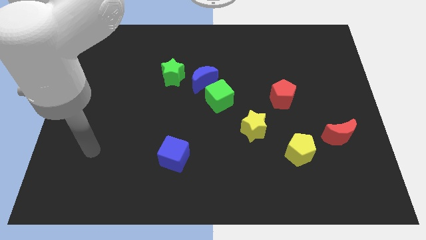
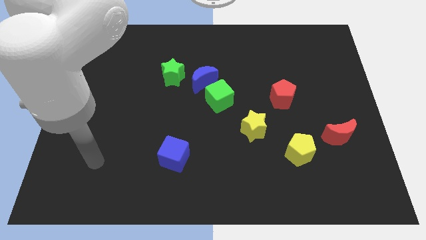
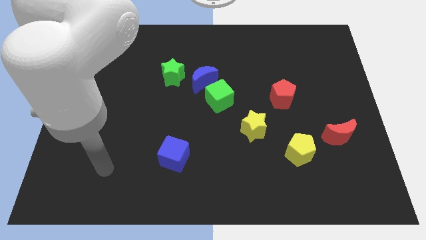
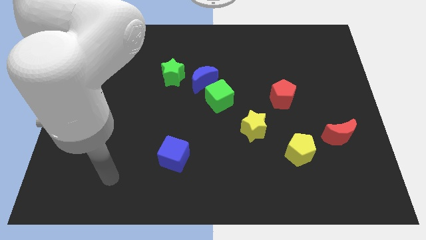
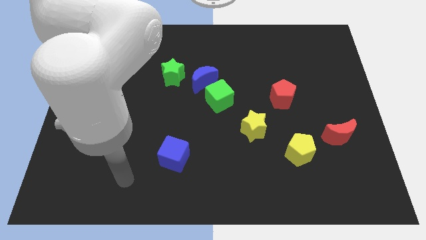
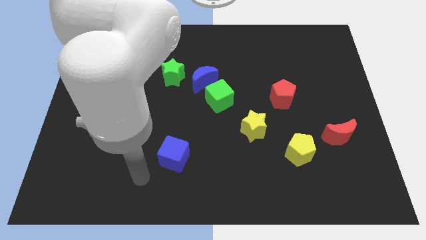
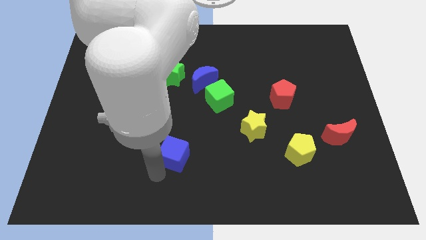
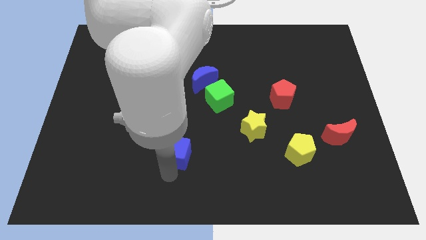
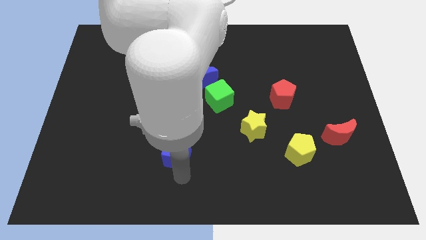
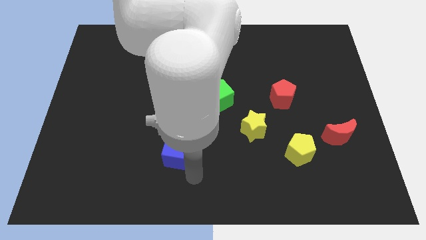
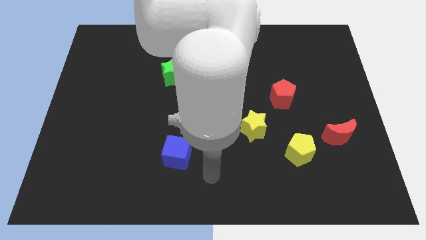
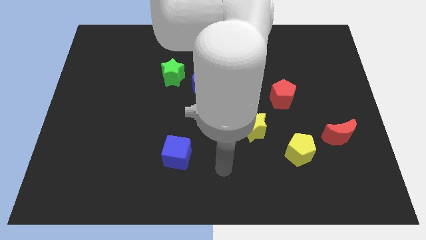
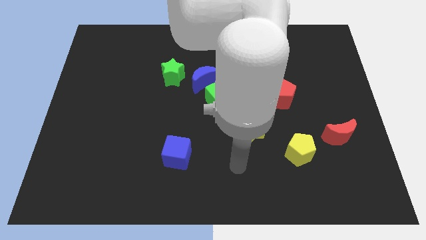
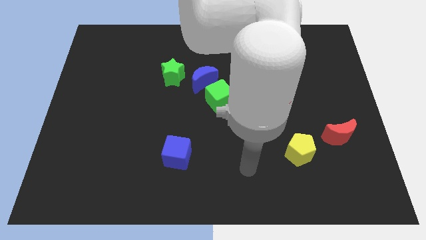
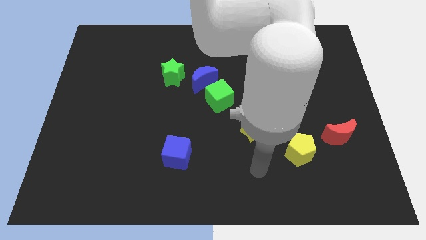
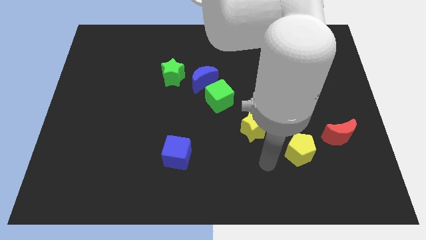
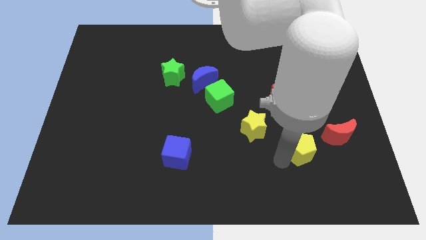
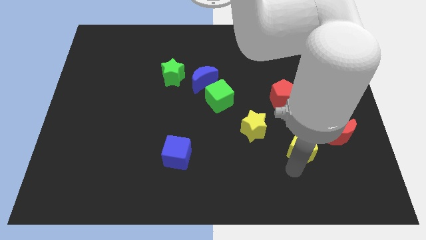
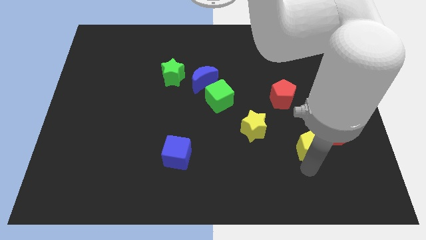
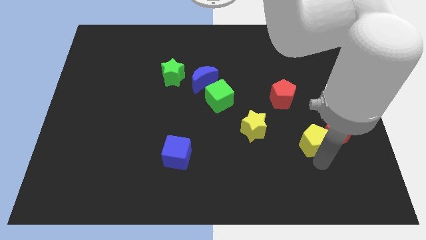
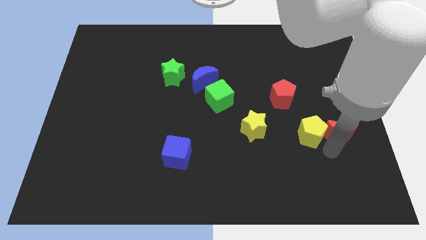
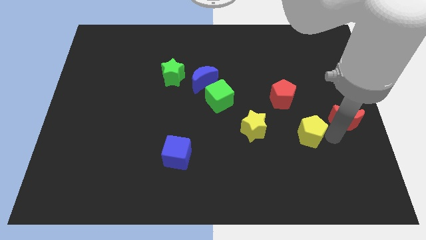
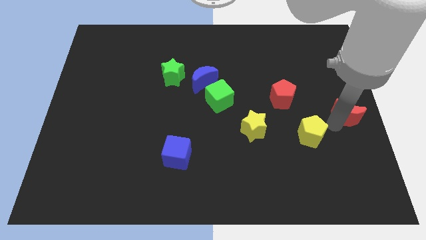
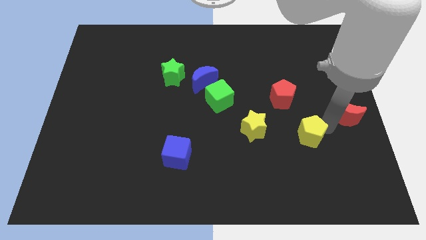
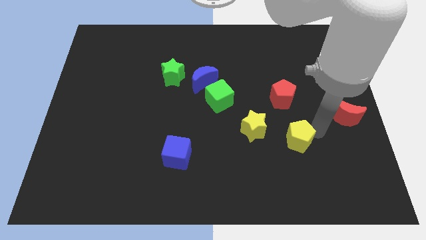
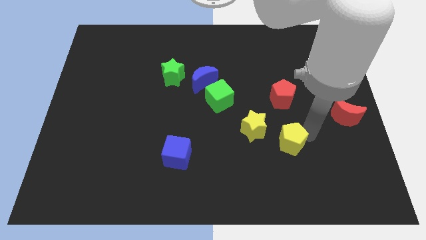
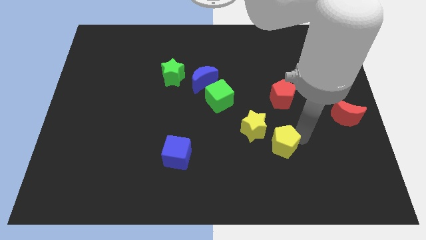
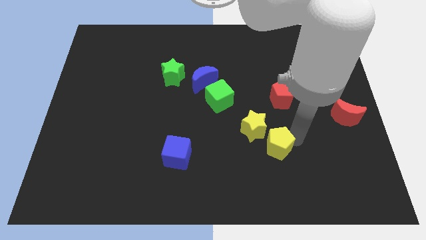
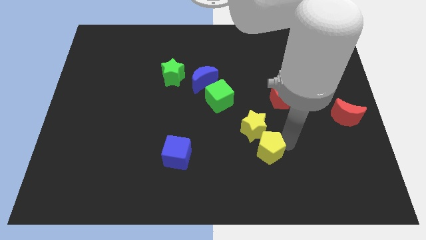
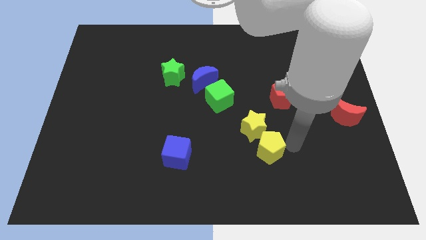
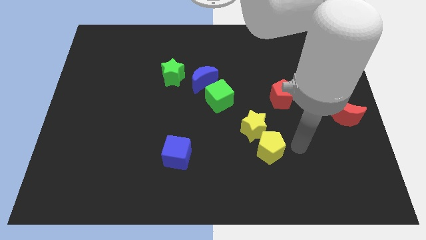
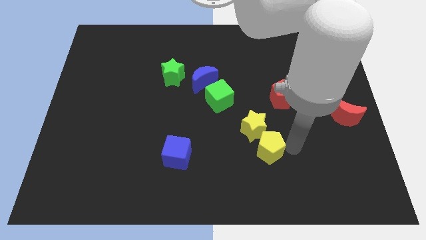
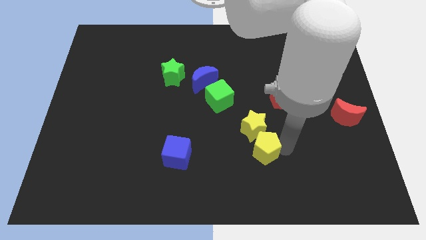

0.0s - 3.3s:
slightly slide the yellow pentagon left

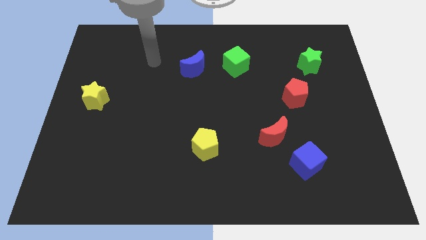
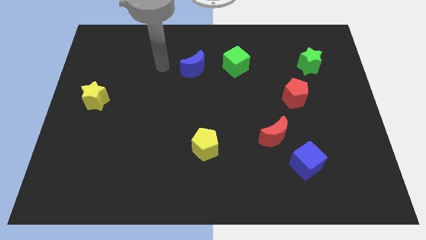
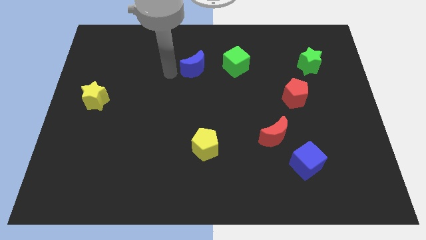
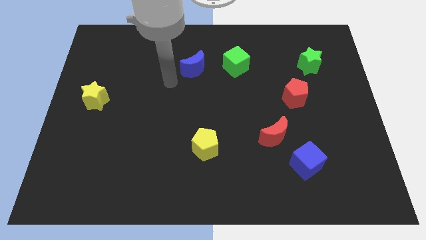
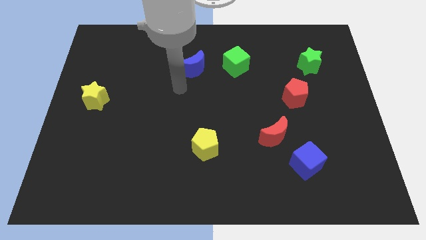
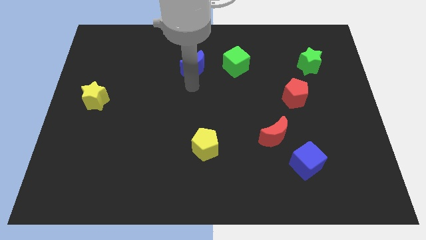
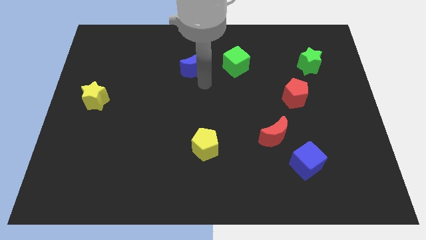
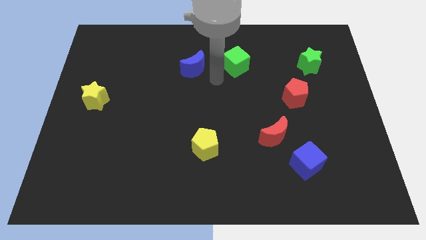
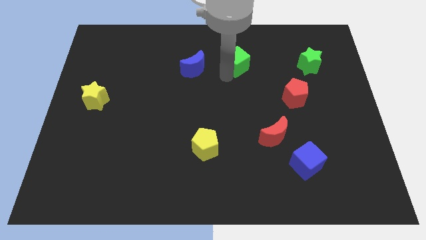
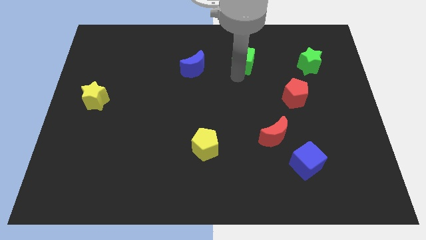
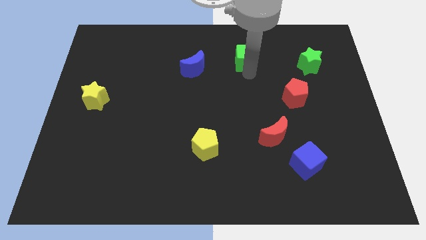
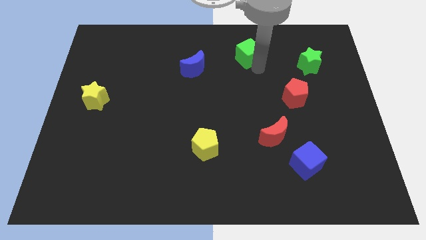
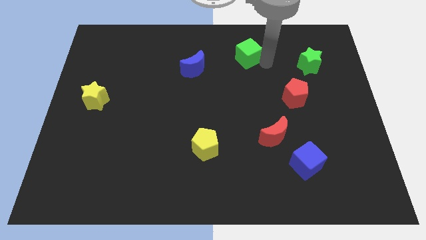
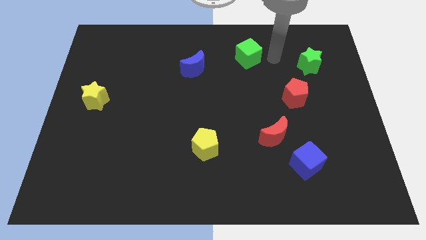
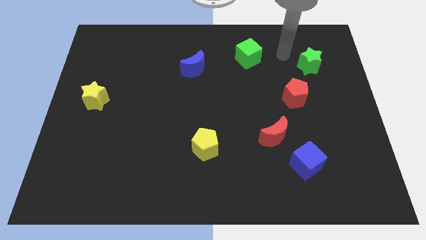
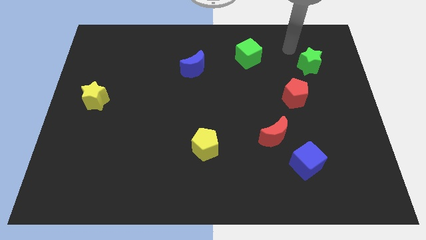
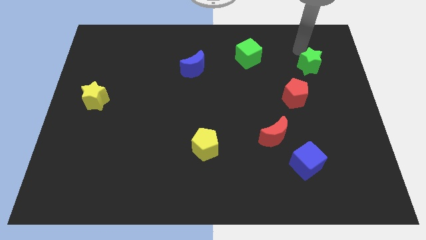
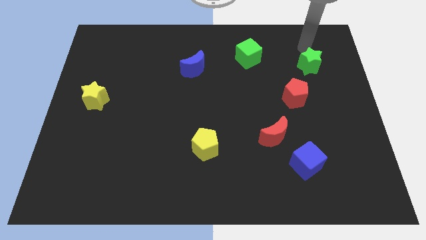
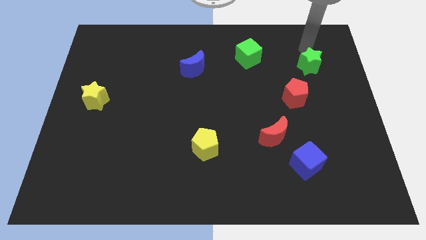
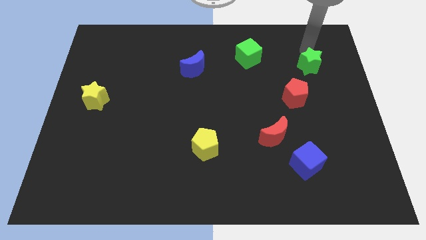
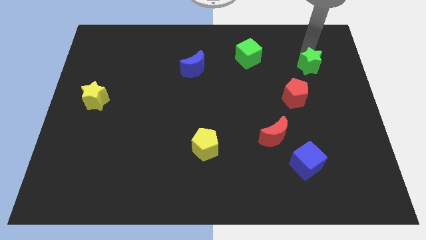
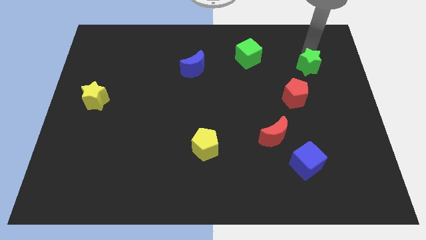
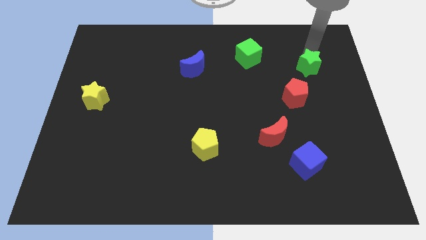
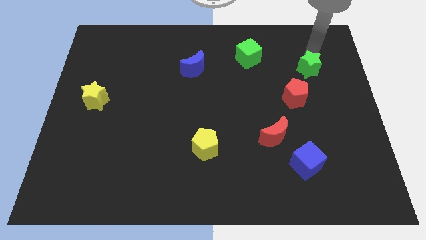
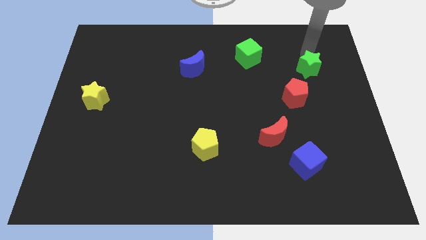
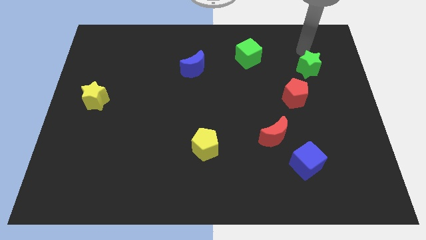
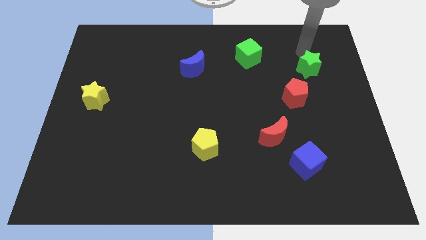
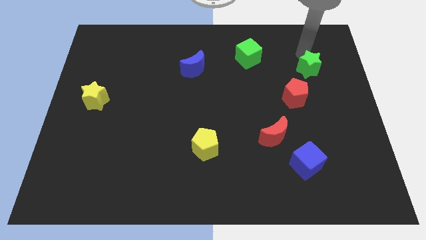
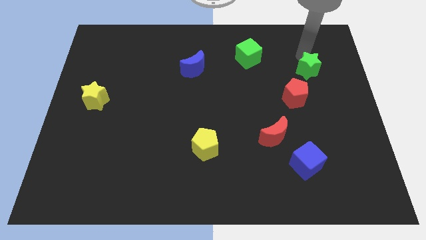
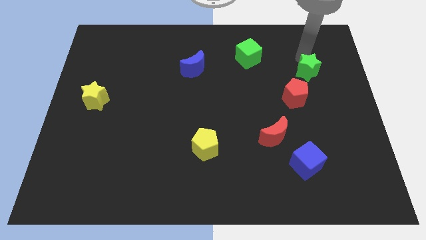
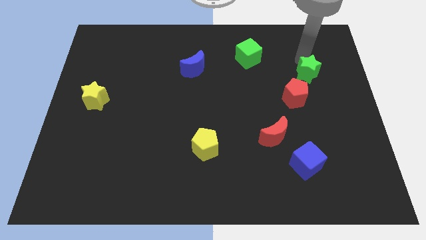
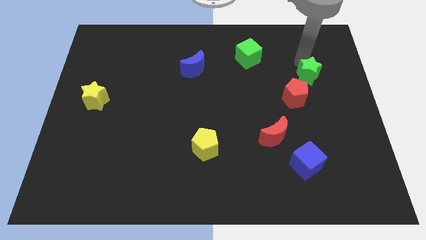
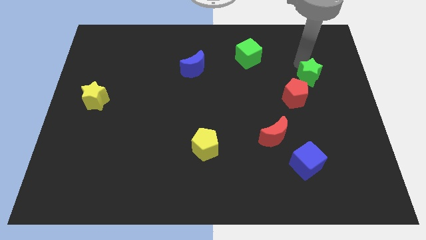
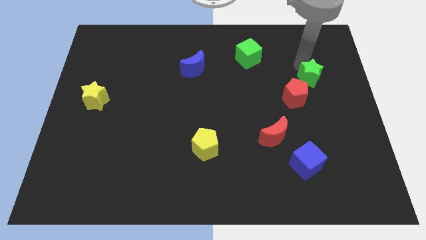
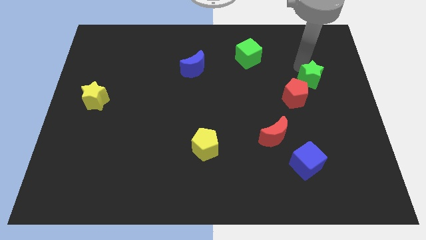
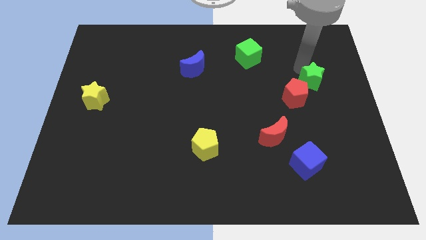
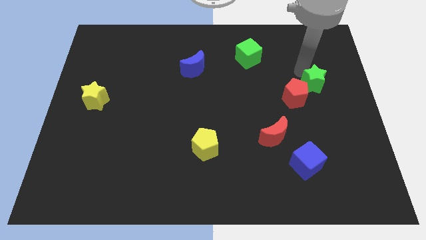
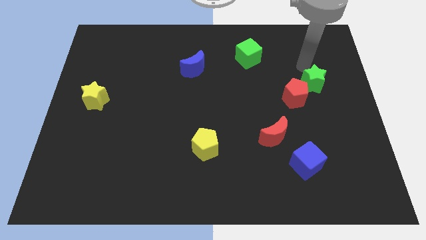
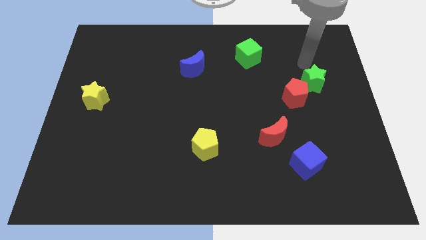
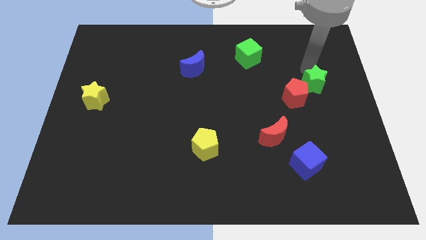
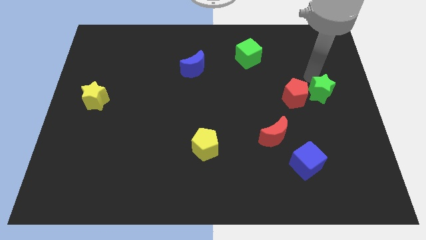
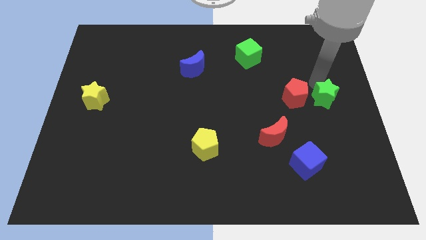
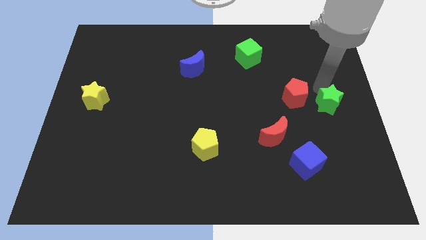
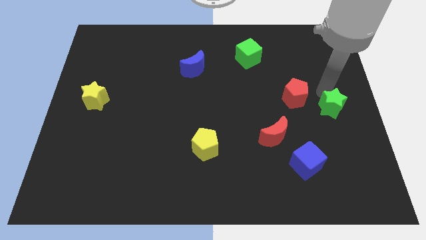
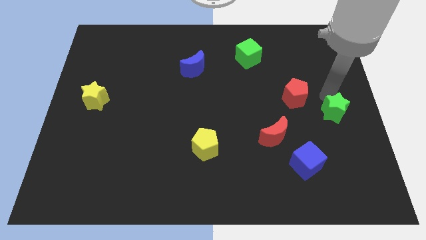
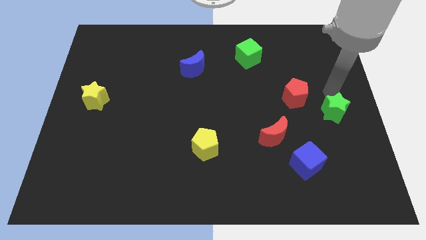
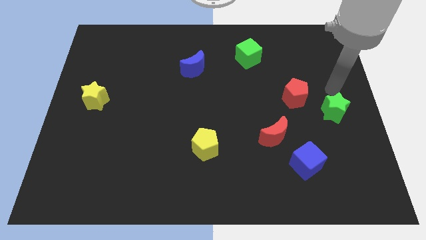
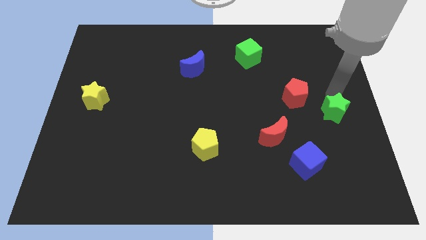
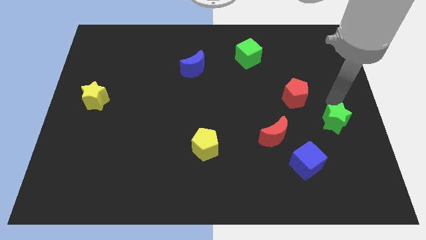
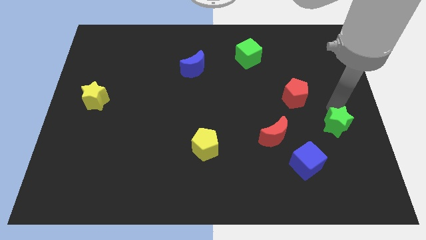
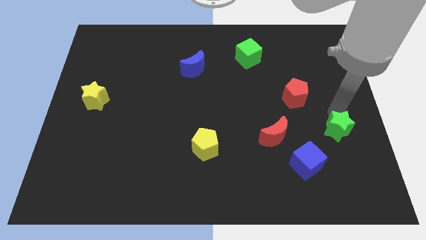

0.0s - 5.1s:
push the green star down

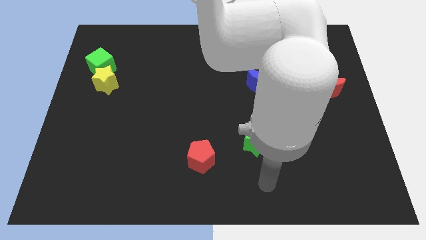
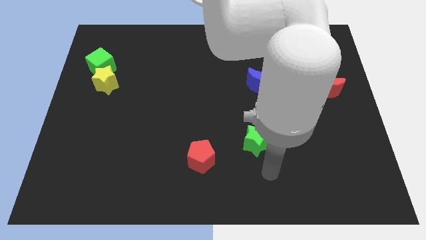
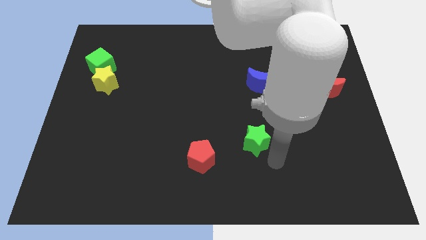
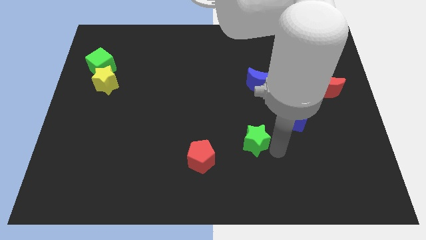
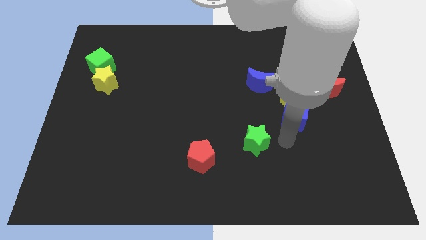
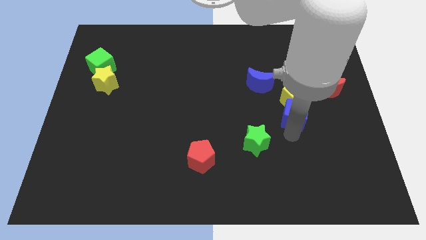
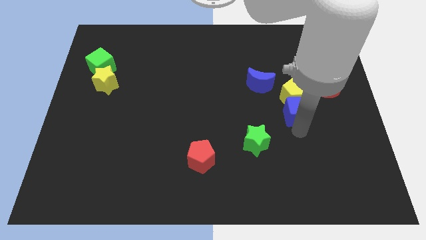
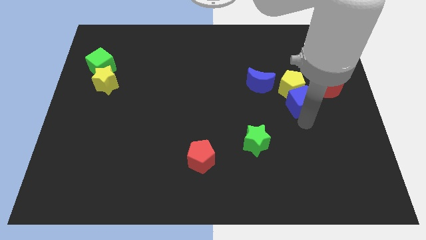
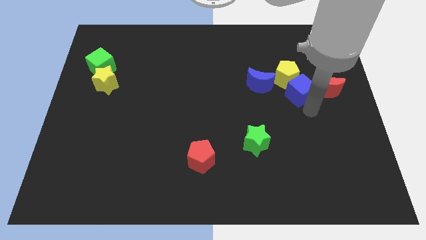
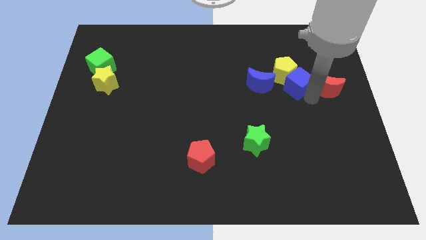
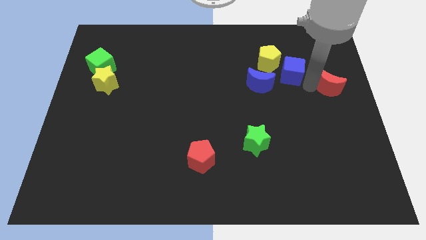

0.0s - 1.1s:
slide the yellow pentagon a bit diagonally up and left
